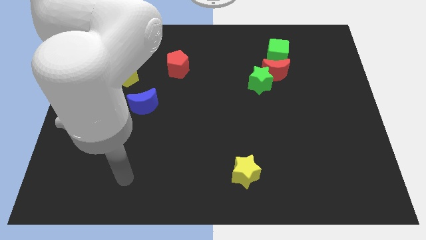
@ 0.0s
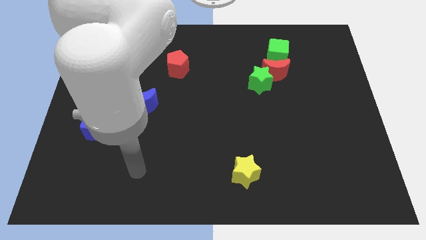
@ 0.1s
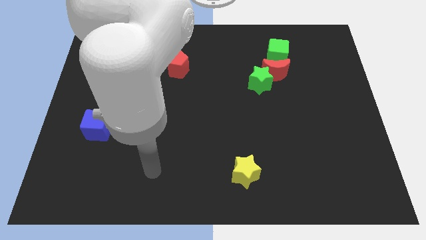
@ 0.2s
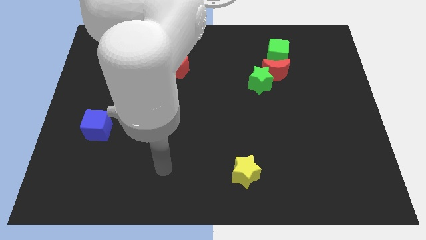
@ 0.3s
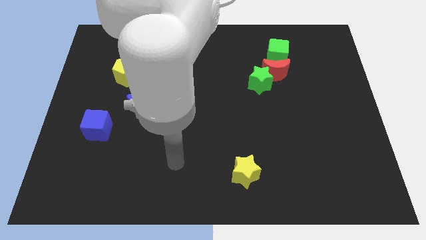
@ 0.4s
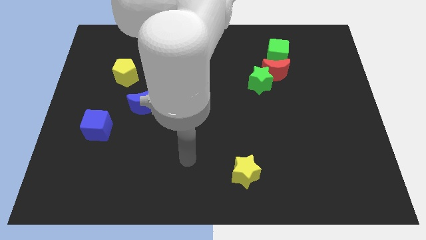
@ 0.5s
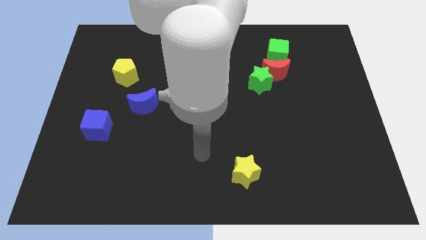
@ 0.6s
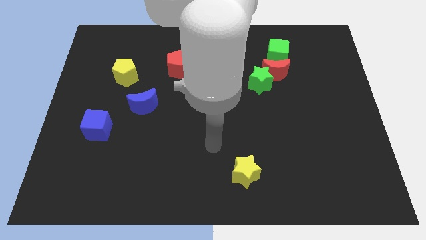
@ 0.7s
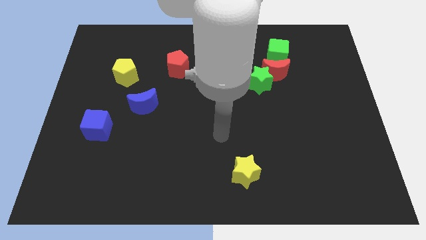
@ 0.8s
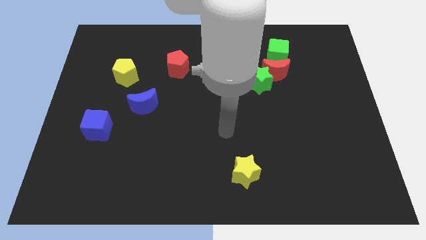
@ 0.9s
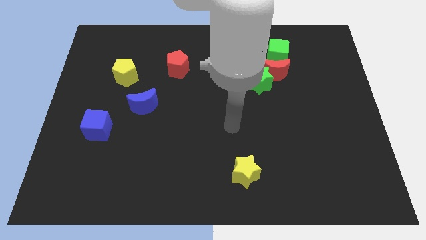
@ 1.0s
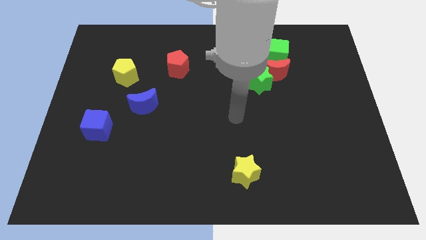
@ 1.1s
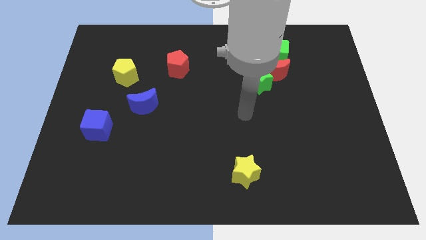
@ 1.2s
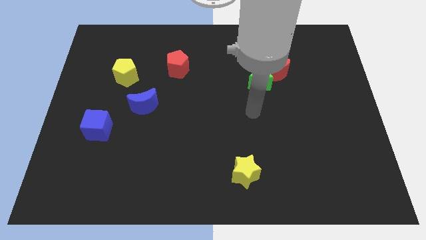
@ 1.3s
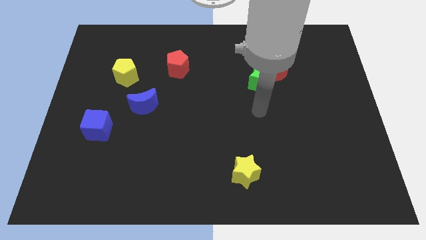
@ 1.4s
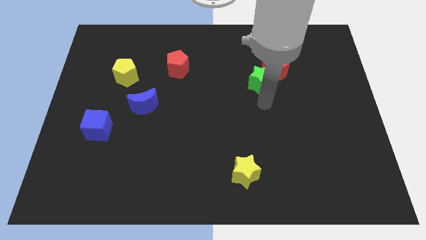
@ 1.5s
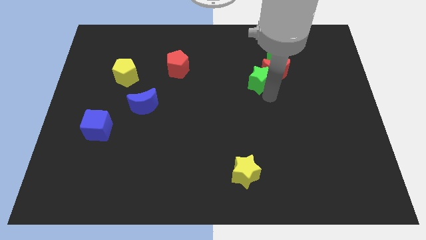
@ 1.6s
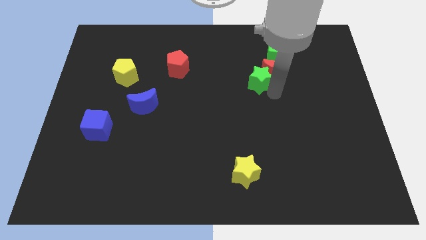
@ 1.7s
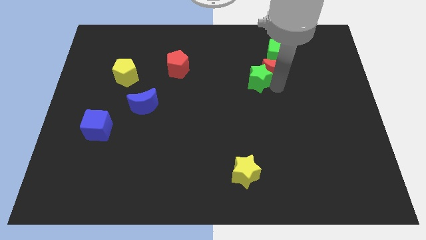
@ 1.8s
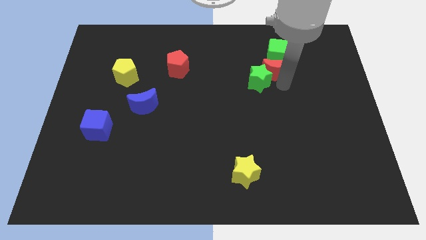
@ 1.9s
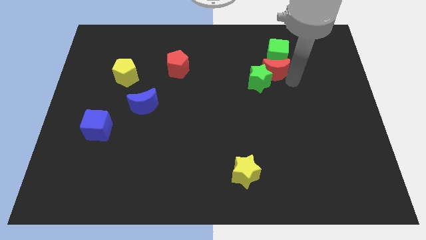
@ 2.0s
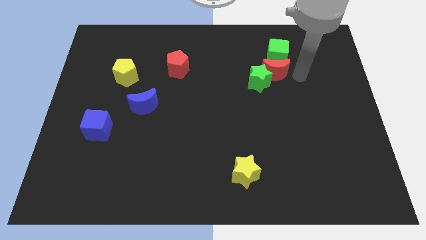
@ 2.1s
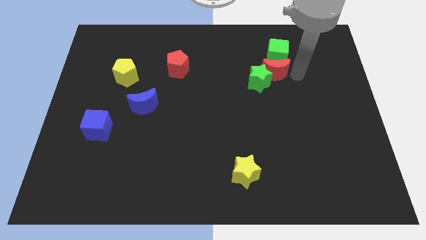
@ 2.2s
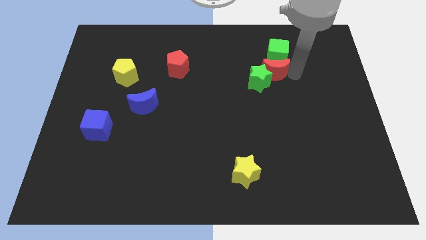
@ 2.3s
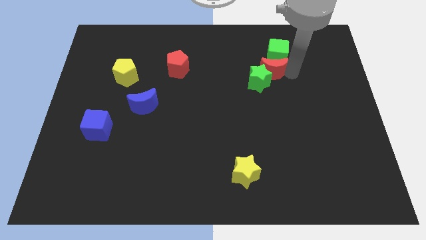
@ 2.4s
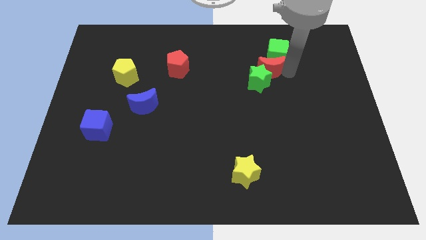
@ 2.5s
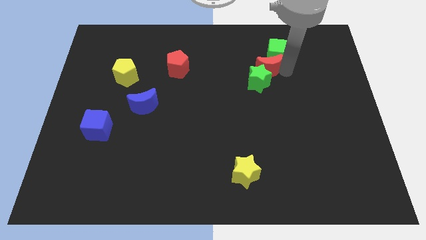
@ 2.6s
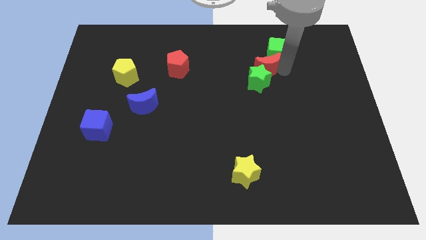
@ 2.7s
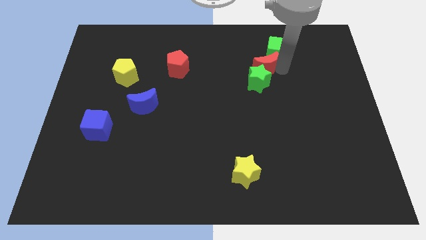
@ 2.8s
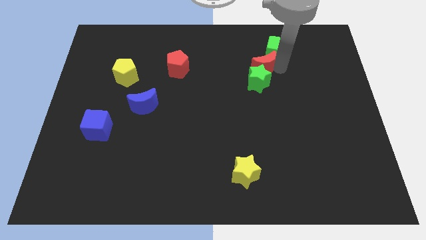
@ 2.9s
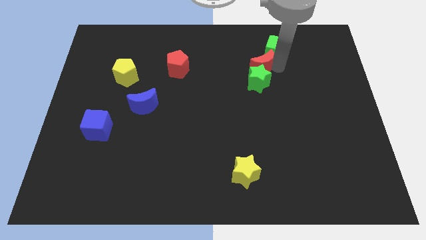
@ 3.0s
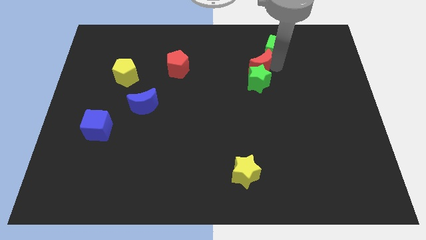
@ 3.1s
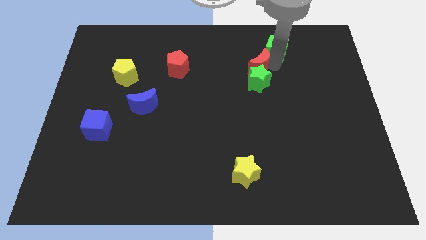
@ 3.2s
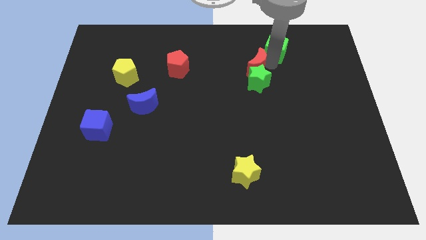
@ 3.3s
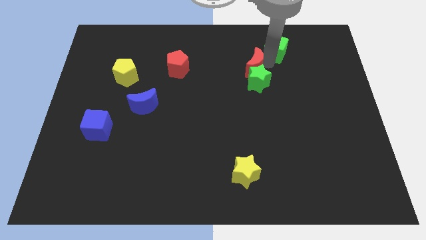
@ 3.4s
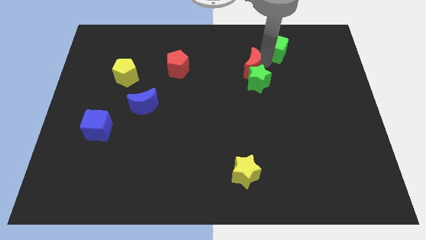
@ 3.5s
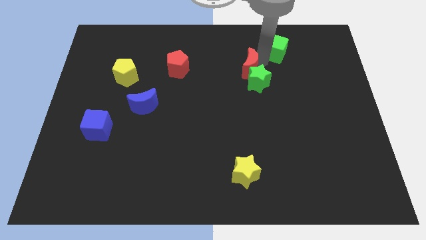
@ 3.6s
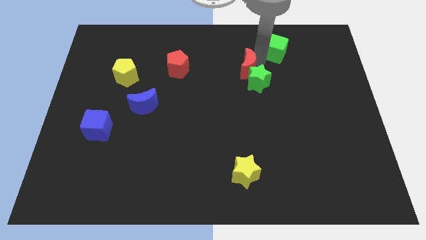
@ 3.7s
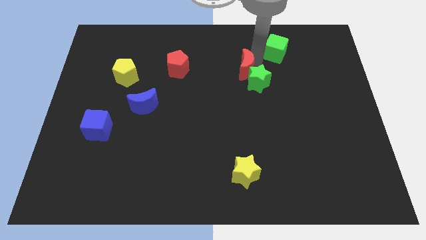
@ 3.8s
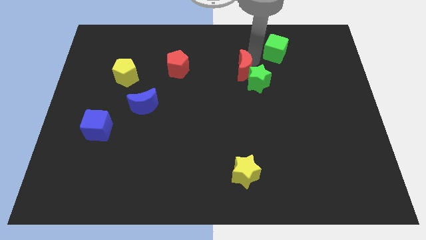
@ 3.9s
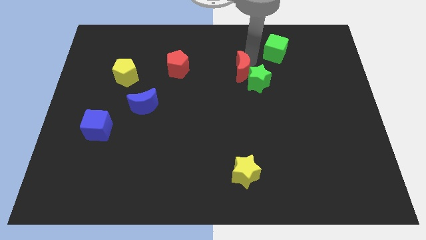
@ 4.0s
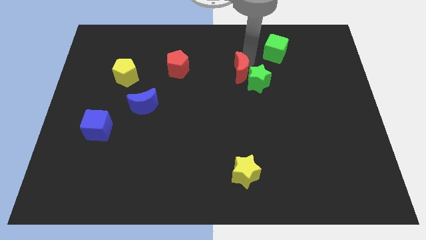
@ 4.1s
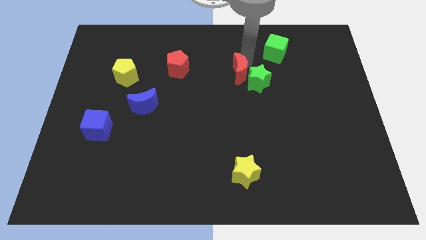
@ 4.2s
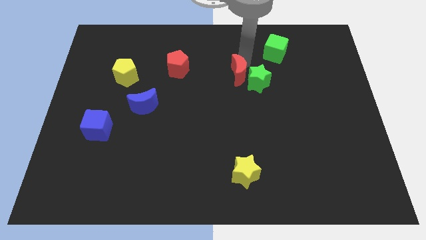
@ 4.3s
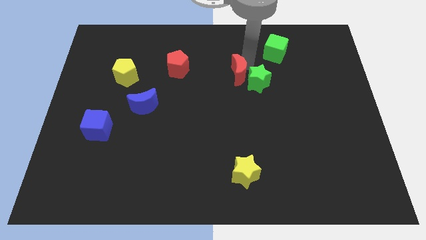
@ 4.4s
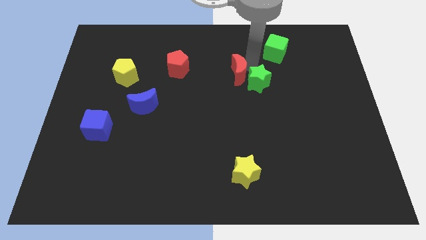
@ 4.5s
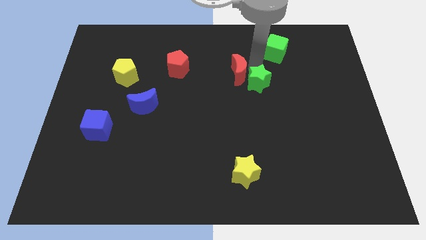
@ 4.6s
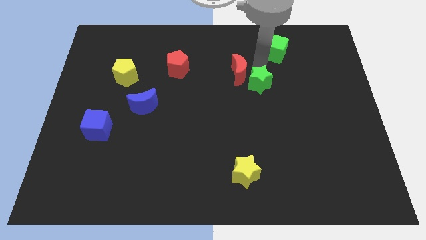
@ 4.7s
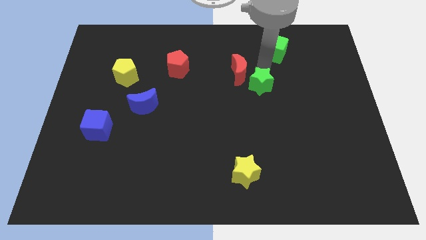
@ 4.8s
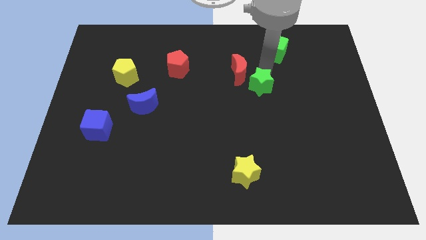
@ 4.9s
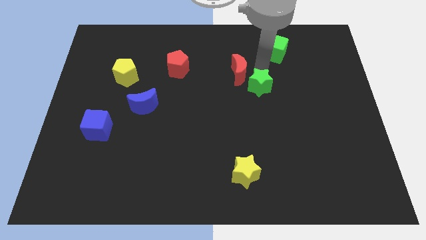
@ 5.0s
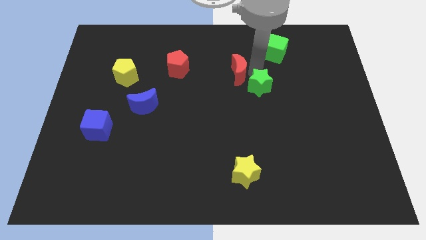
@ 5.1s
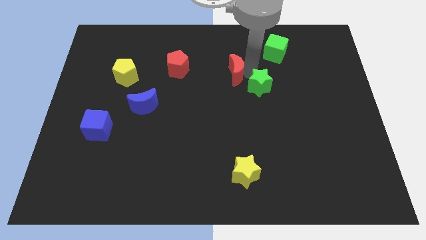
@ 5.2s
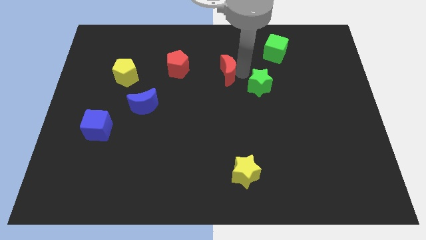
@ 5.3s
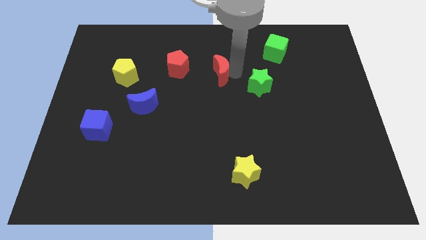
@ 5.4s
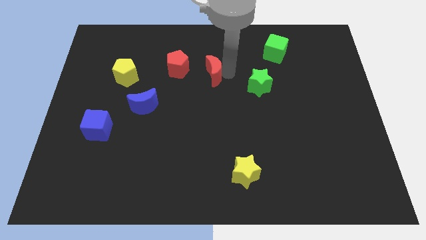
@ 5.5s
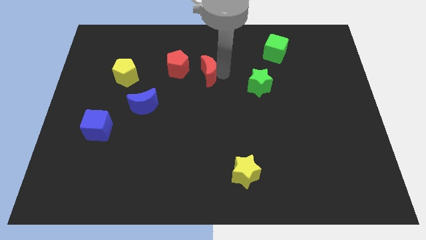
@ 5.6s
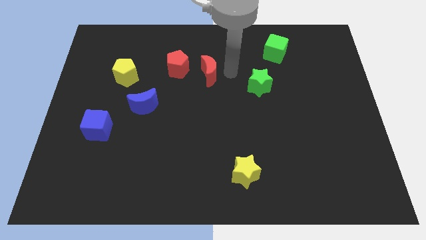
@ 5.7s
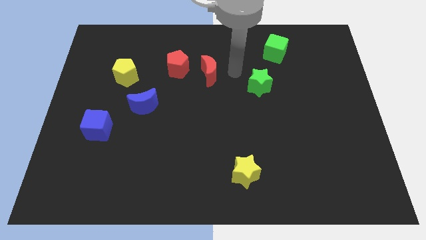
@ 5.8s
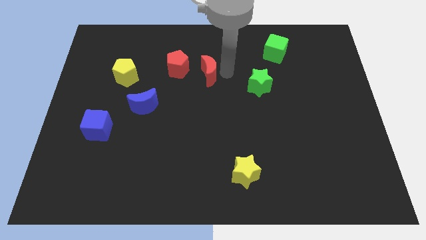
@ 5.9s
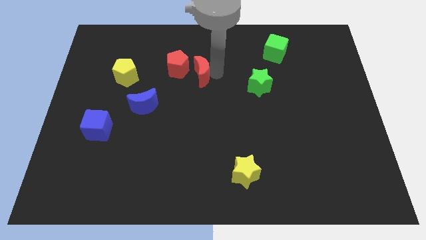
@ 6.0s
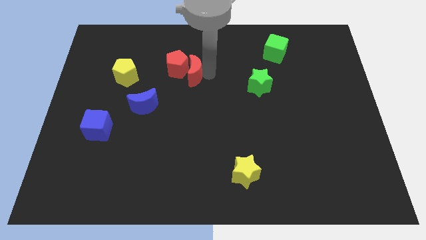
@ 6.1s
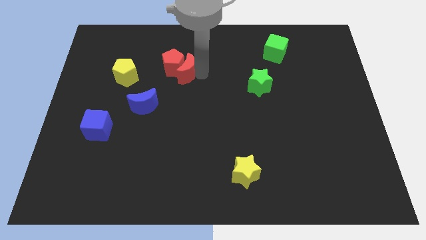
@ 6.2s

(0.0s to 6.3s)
slide the red moon to the right of the yellow pentagon

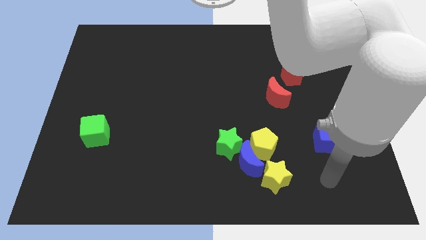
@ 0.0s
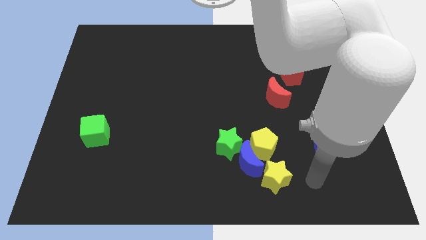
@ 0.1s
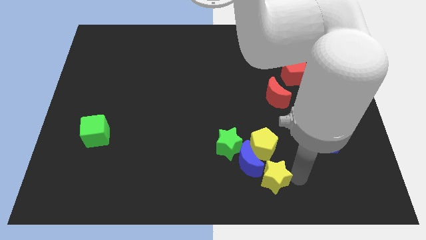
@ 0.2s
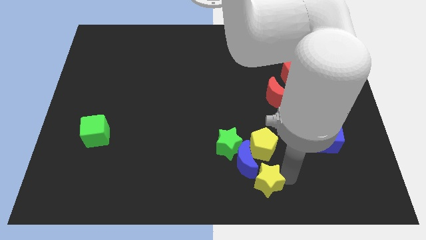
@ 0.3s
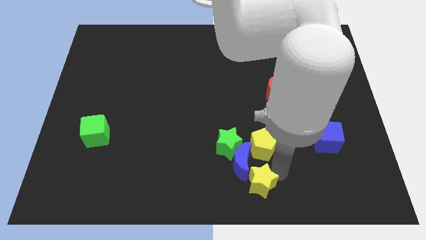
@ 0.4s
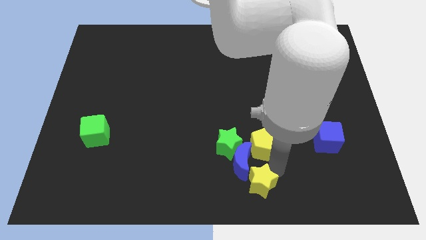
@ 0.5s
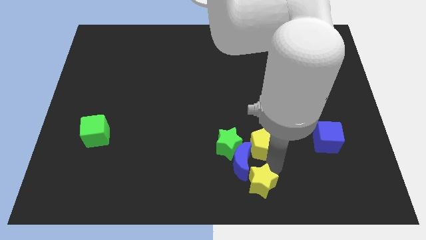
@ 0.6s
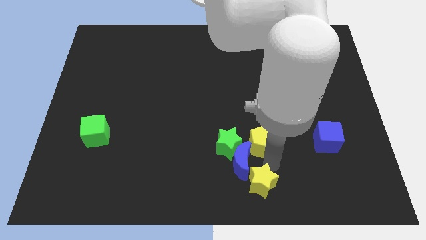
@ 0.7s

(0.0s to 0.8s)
put the yellow pentagon diagonally up and to the right of the green star
